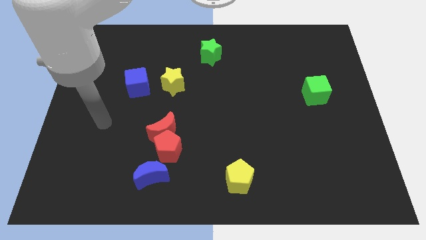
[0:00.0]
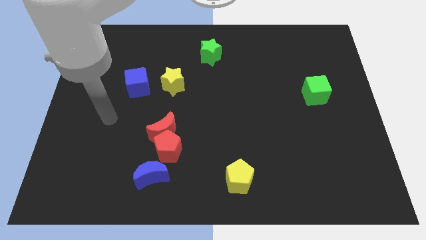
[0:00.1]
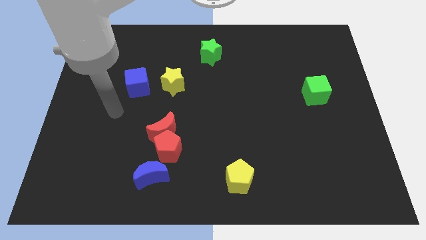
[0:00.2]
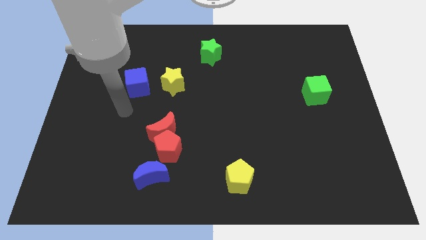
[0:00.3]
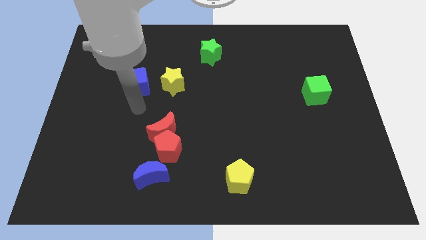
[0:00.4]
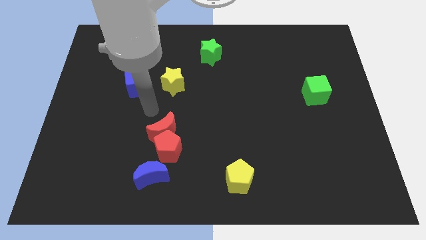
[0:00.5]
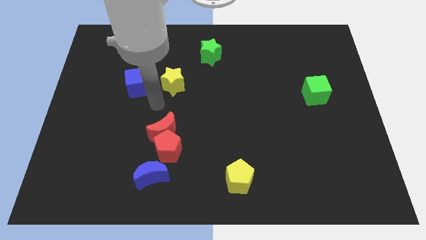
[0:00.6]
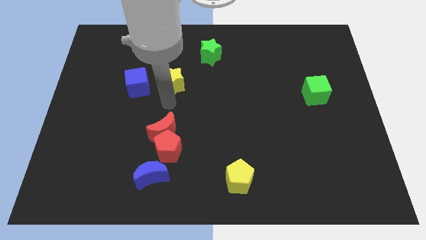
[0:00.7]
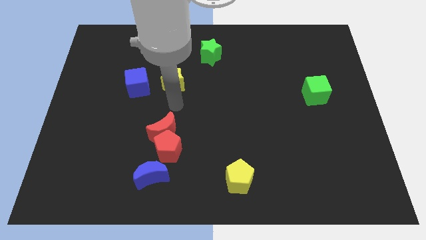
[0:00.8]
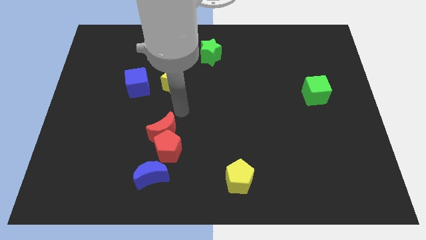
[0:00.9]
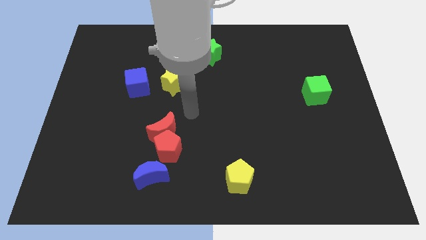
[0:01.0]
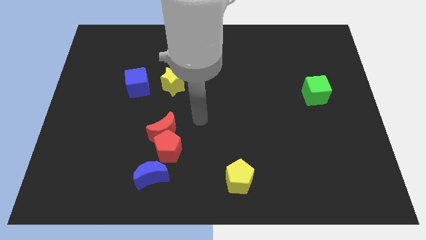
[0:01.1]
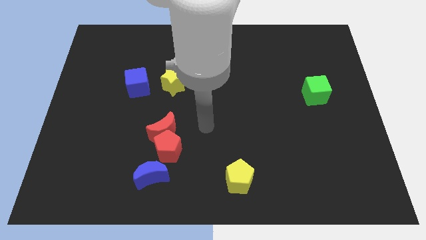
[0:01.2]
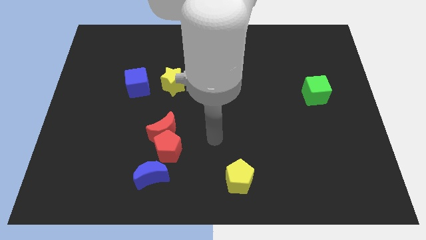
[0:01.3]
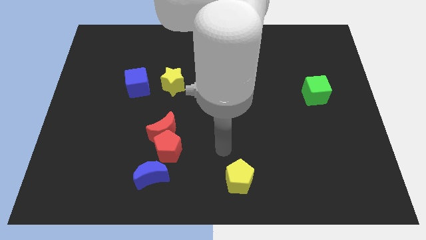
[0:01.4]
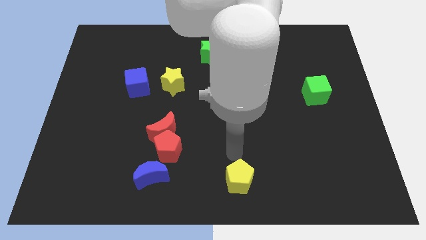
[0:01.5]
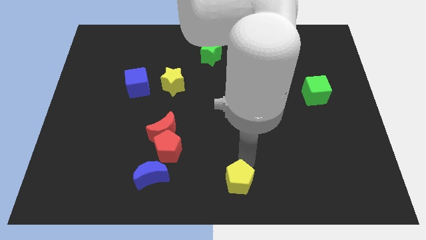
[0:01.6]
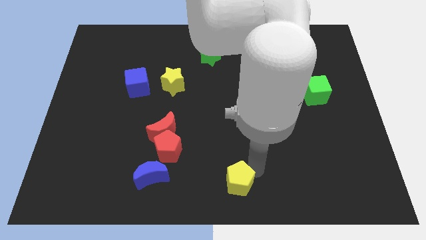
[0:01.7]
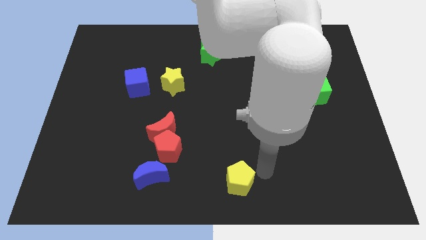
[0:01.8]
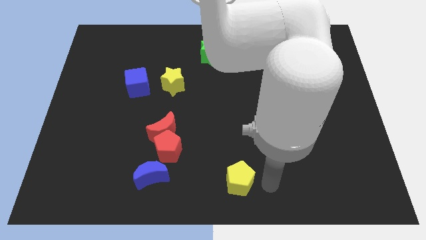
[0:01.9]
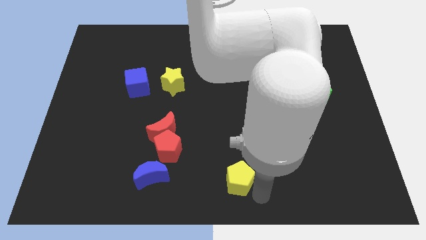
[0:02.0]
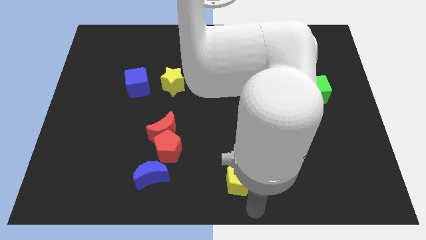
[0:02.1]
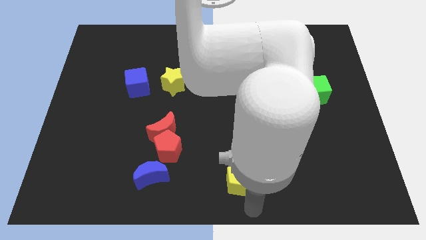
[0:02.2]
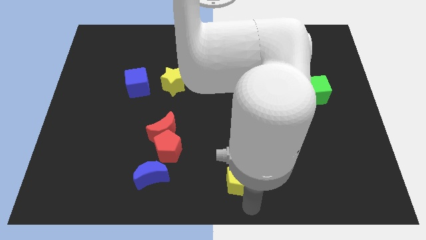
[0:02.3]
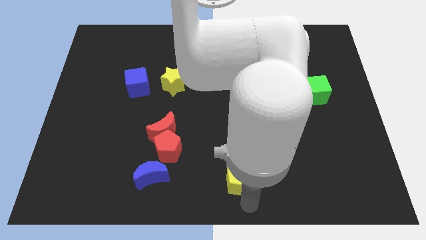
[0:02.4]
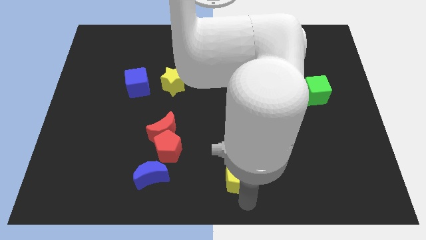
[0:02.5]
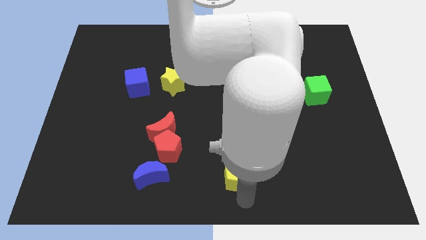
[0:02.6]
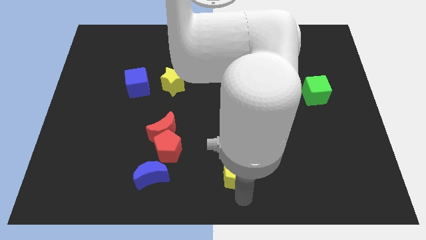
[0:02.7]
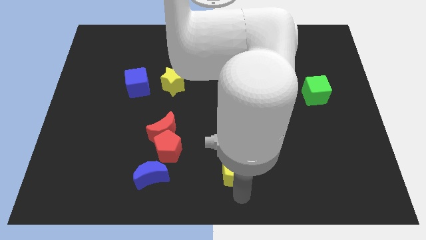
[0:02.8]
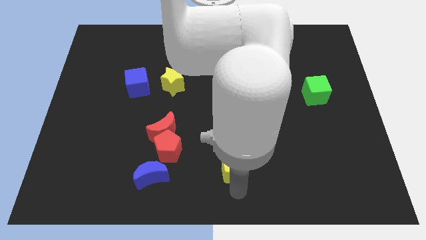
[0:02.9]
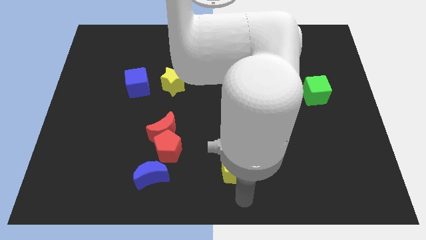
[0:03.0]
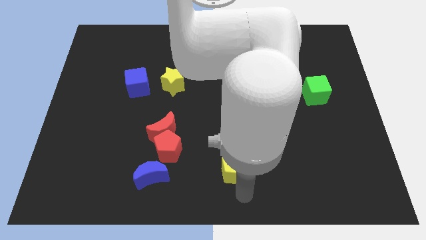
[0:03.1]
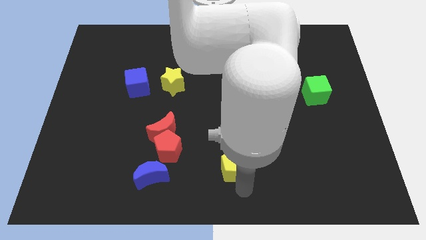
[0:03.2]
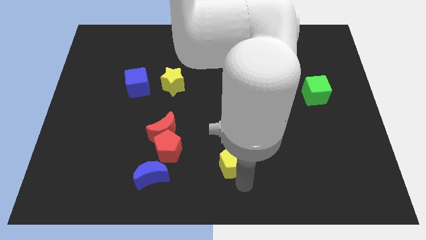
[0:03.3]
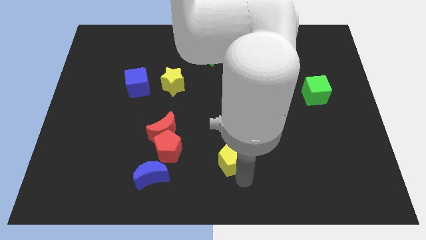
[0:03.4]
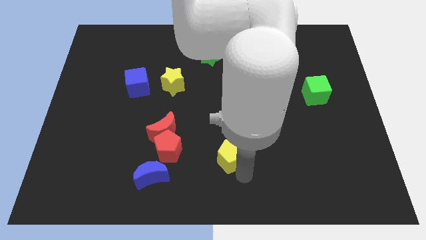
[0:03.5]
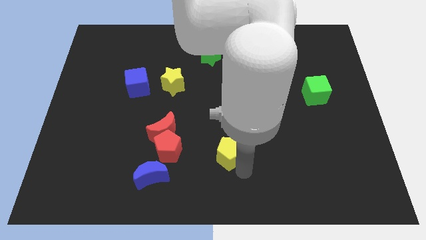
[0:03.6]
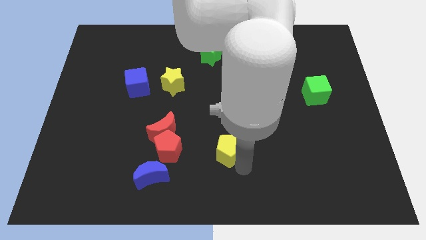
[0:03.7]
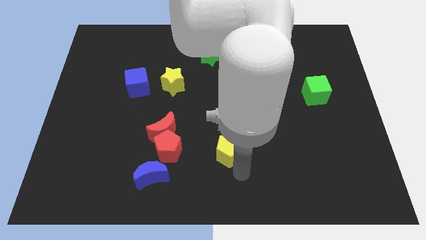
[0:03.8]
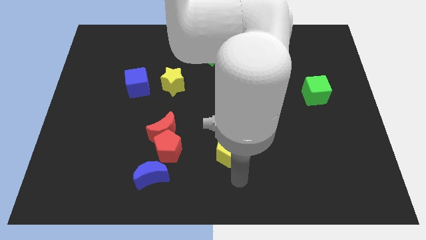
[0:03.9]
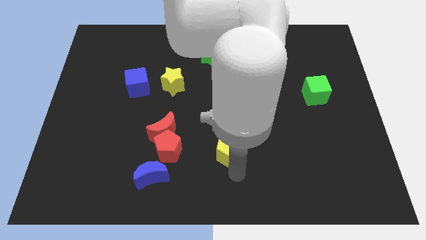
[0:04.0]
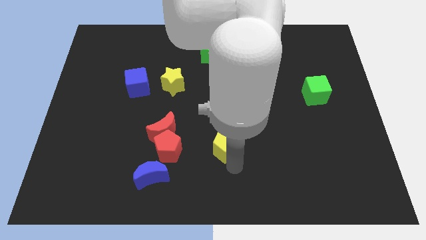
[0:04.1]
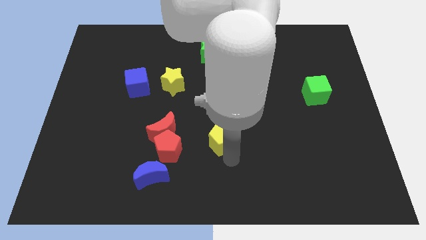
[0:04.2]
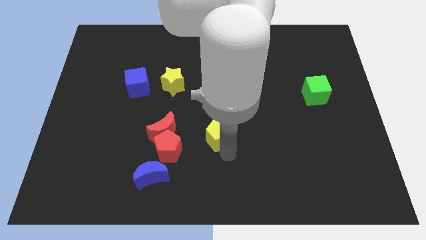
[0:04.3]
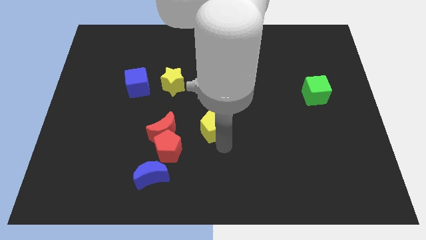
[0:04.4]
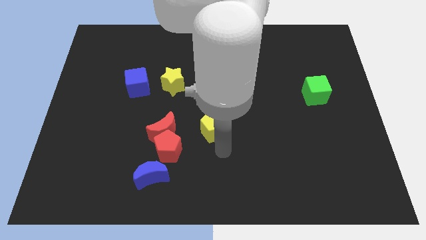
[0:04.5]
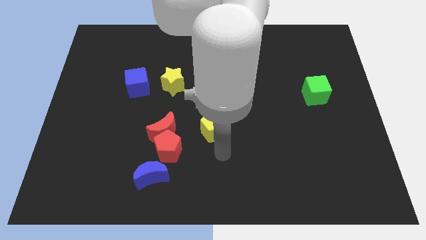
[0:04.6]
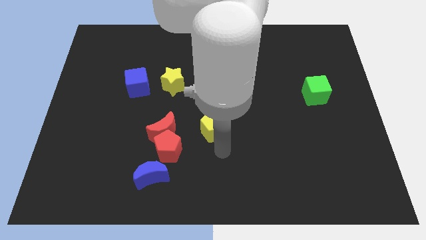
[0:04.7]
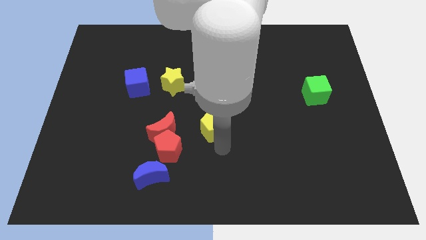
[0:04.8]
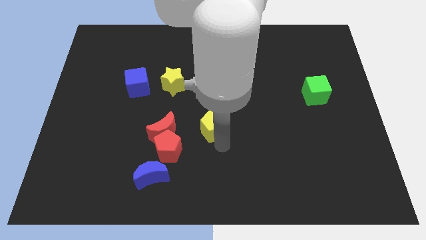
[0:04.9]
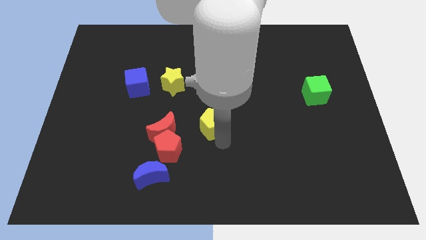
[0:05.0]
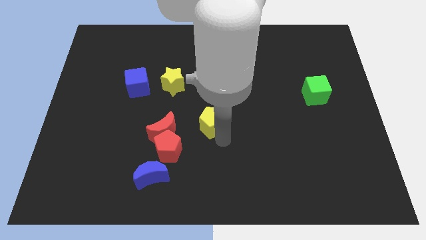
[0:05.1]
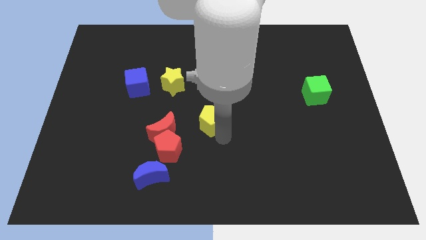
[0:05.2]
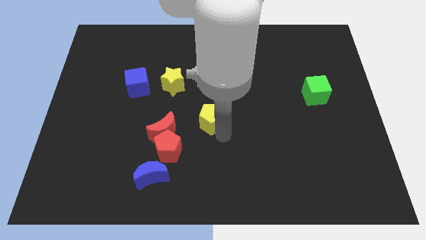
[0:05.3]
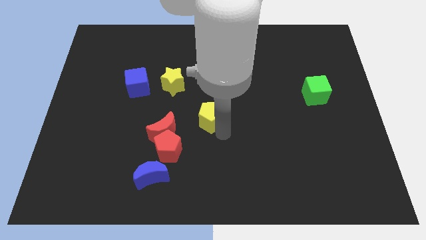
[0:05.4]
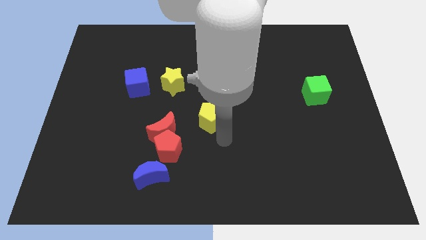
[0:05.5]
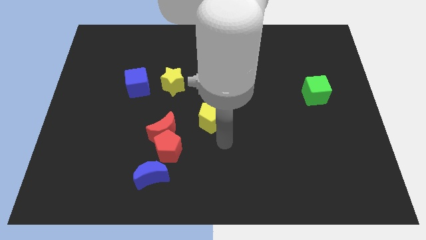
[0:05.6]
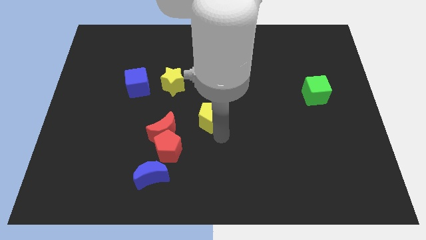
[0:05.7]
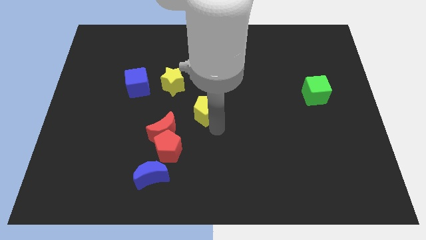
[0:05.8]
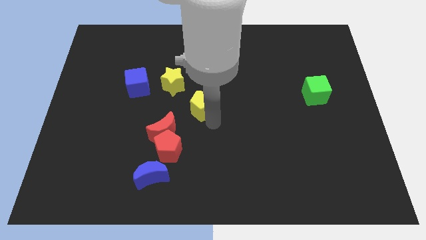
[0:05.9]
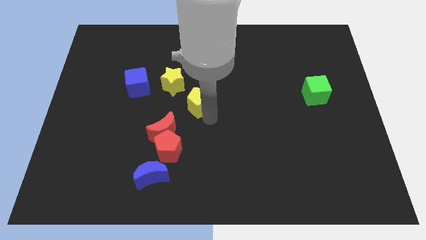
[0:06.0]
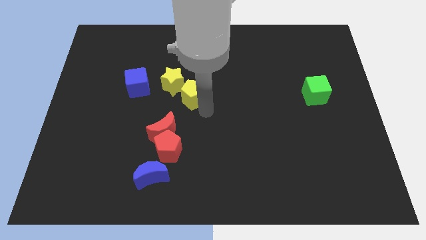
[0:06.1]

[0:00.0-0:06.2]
push the yellow pentagon just right of the blue cube
